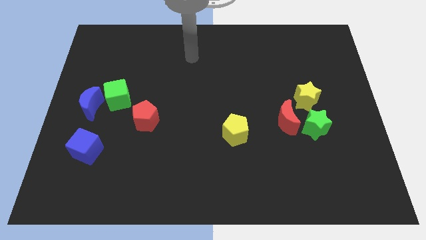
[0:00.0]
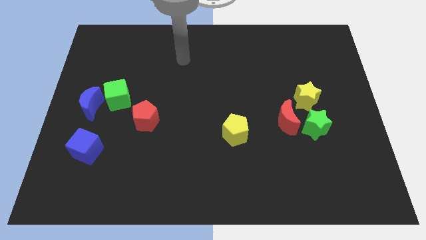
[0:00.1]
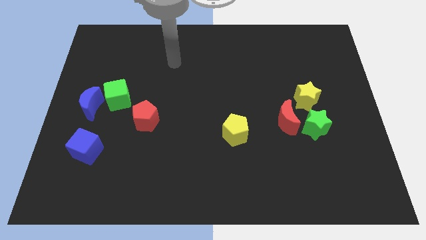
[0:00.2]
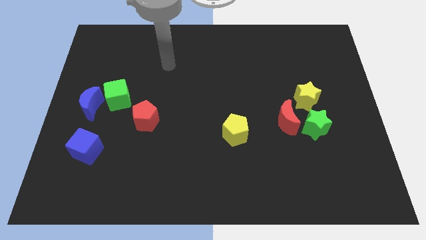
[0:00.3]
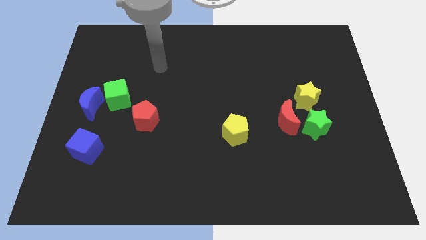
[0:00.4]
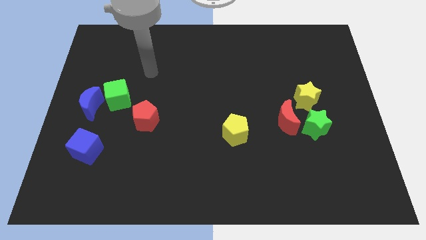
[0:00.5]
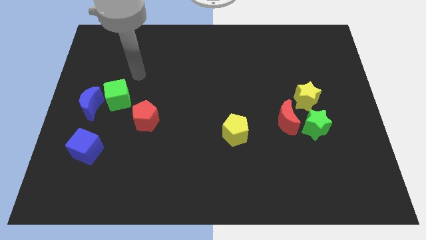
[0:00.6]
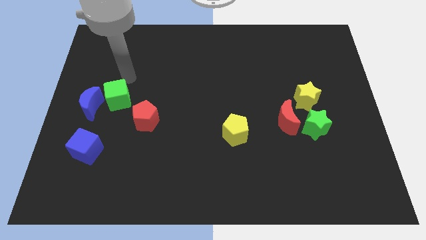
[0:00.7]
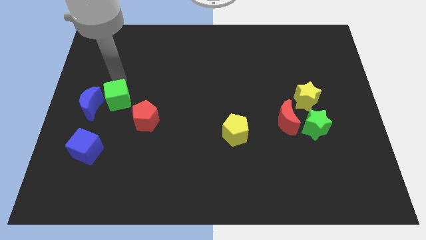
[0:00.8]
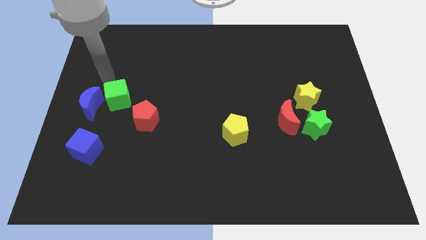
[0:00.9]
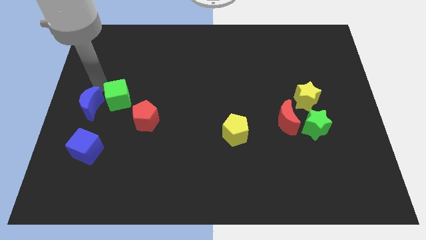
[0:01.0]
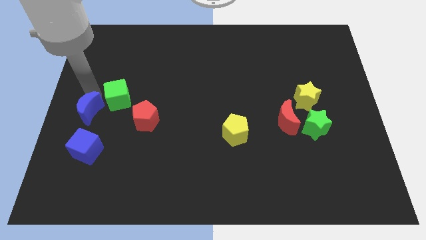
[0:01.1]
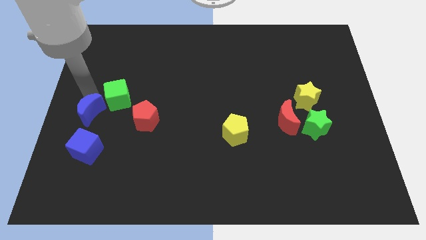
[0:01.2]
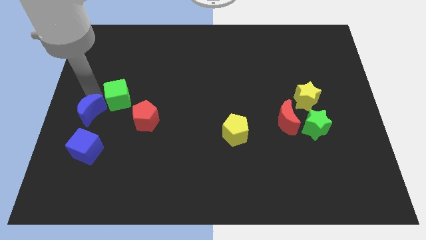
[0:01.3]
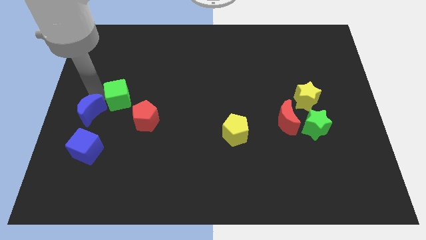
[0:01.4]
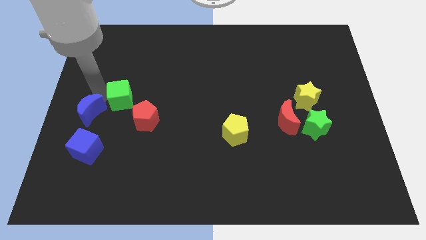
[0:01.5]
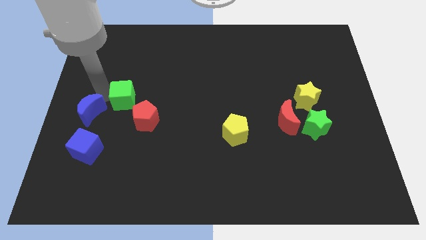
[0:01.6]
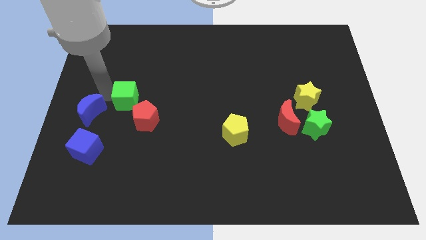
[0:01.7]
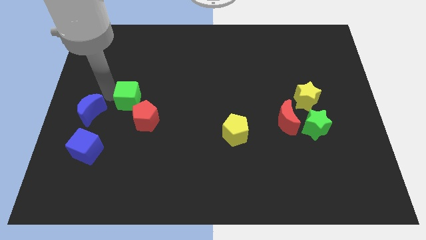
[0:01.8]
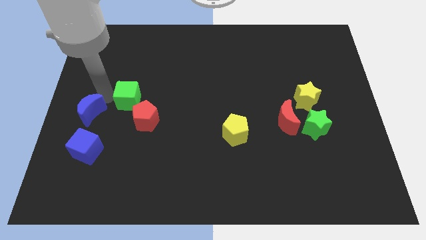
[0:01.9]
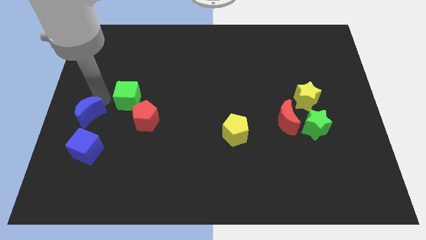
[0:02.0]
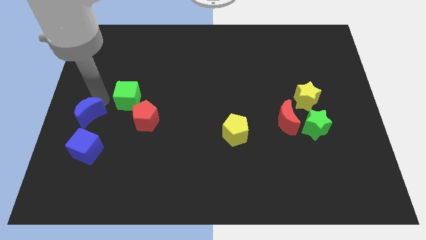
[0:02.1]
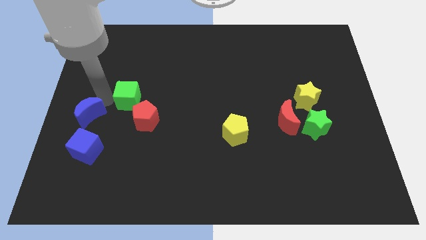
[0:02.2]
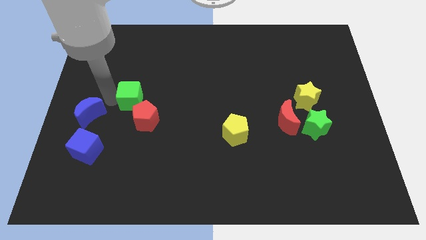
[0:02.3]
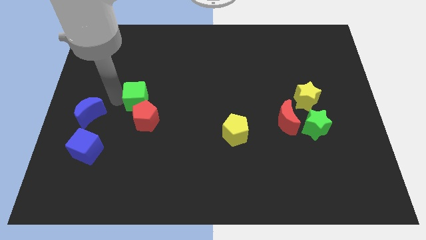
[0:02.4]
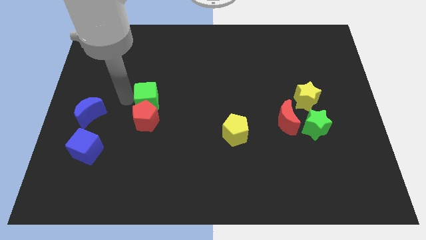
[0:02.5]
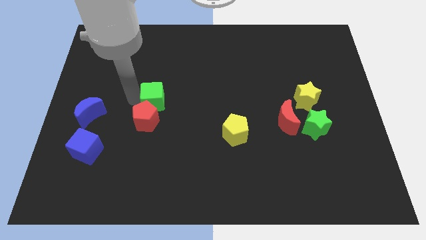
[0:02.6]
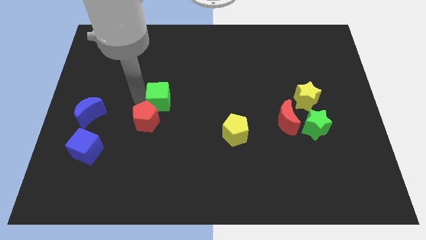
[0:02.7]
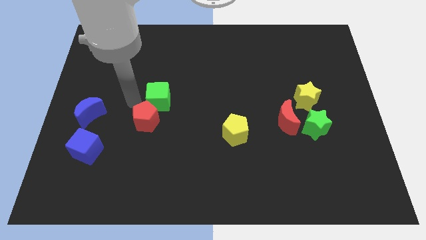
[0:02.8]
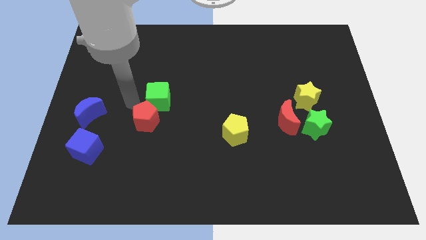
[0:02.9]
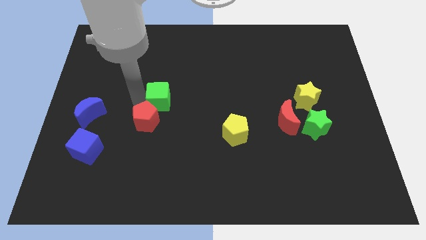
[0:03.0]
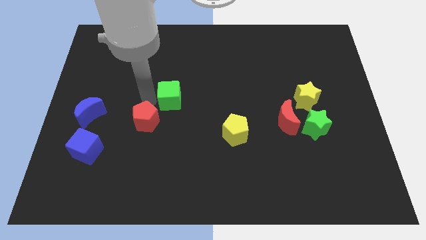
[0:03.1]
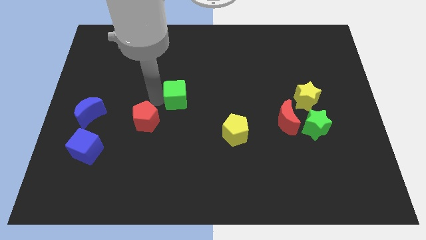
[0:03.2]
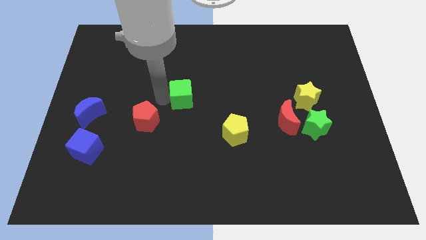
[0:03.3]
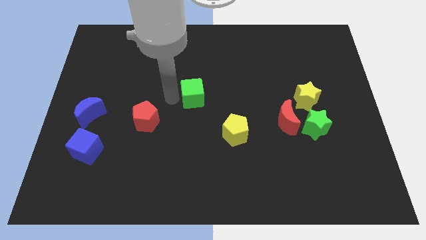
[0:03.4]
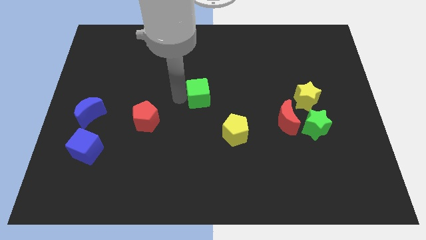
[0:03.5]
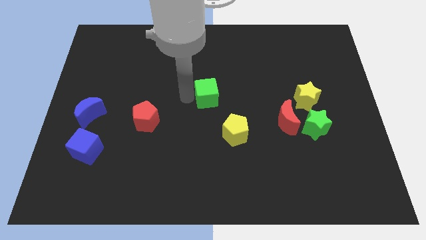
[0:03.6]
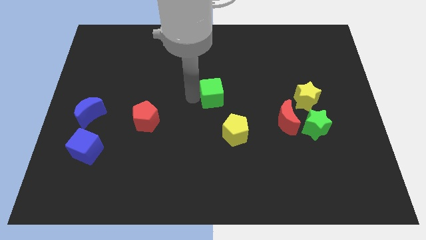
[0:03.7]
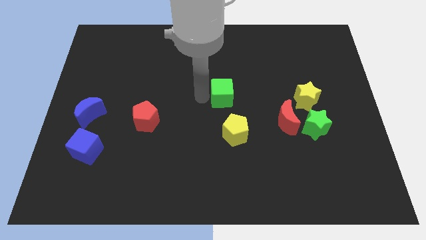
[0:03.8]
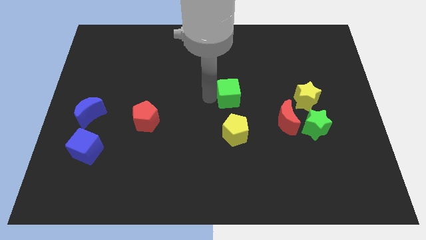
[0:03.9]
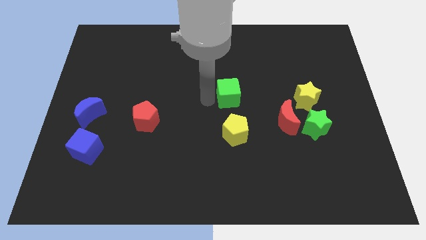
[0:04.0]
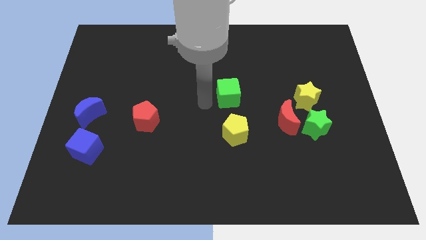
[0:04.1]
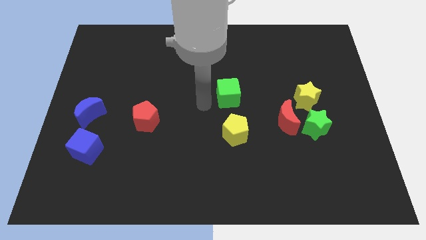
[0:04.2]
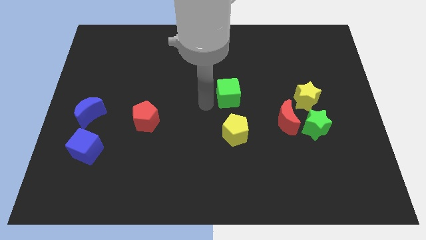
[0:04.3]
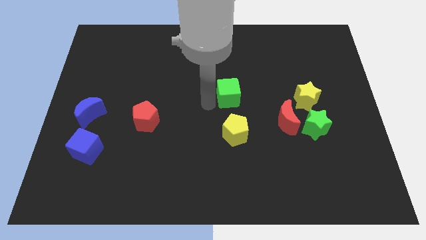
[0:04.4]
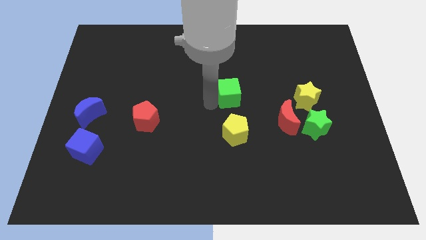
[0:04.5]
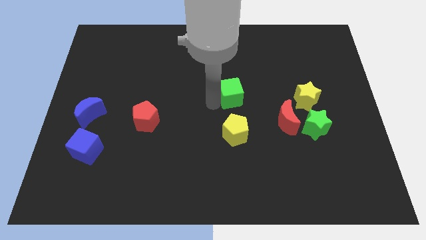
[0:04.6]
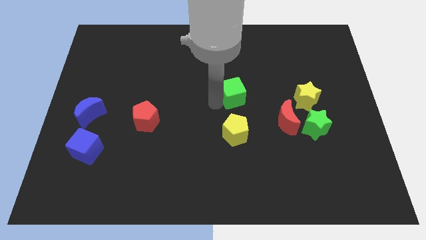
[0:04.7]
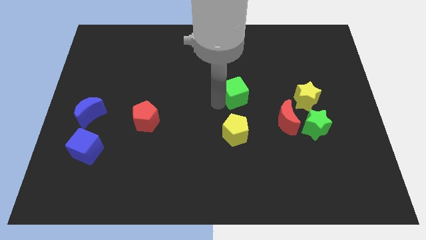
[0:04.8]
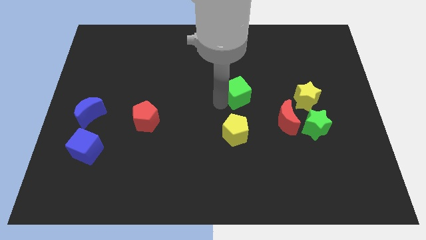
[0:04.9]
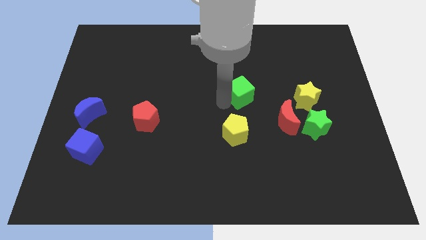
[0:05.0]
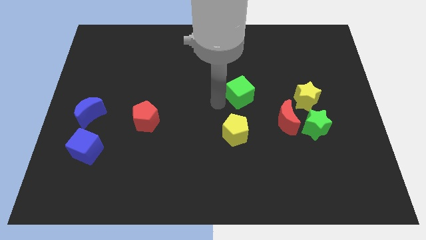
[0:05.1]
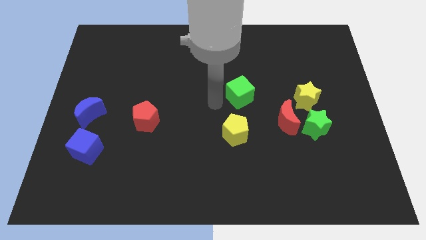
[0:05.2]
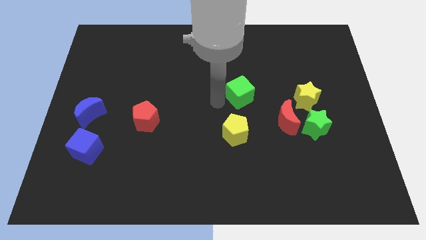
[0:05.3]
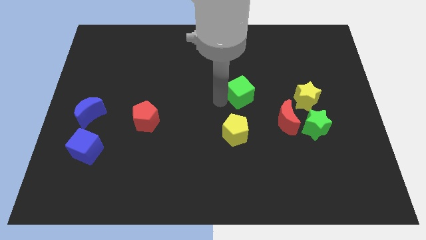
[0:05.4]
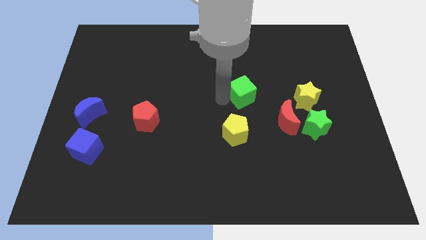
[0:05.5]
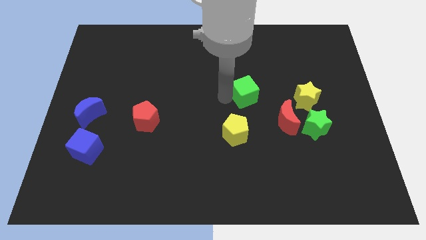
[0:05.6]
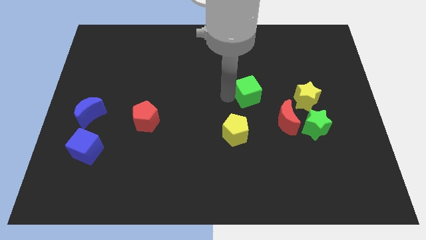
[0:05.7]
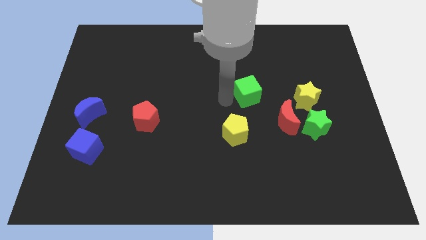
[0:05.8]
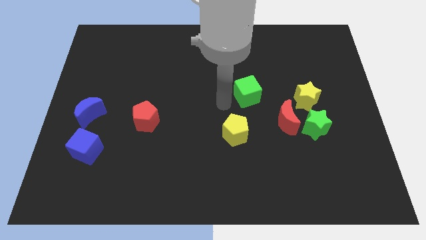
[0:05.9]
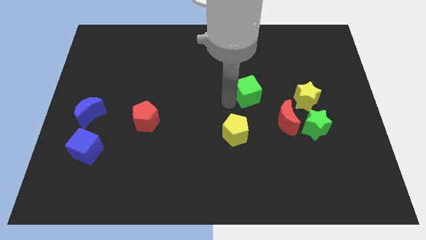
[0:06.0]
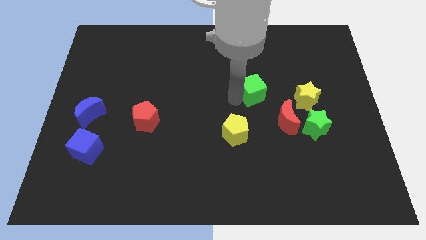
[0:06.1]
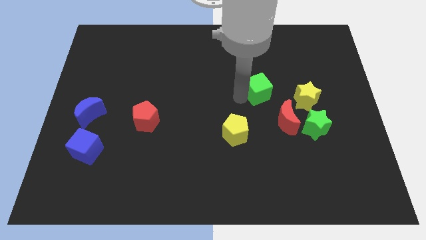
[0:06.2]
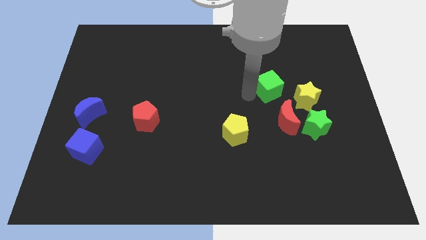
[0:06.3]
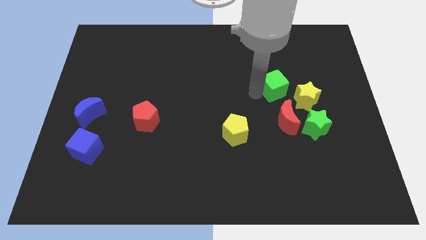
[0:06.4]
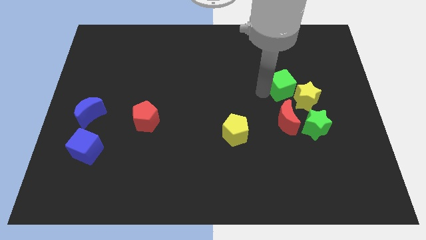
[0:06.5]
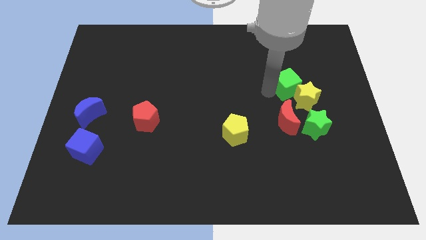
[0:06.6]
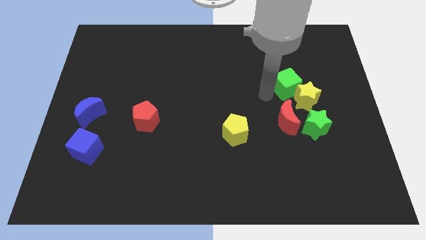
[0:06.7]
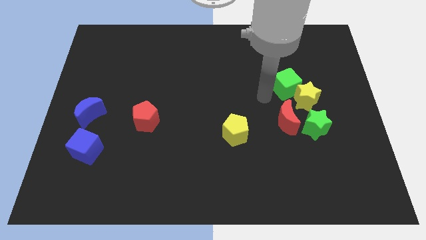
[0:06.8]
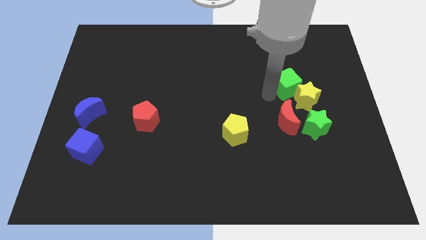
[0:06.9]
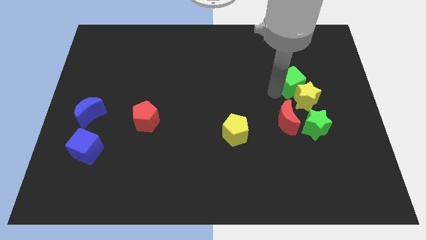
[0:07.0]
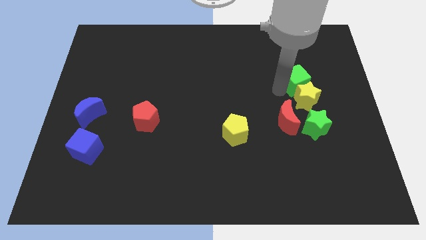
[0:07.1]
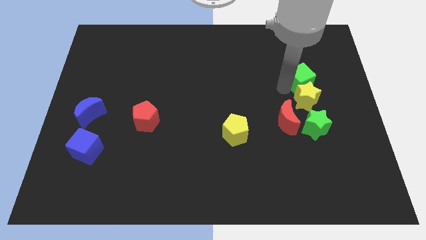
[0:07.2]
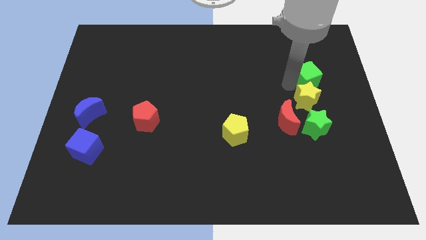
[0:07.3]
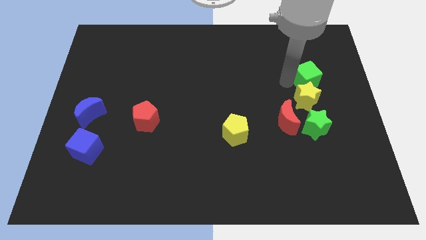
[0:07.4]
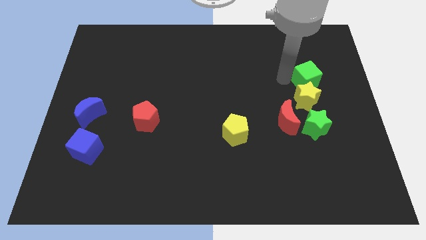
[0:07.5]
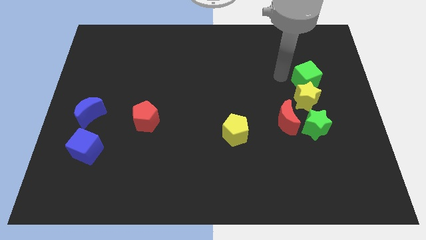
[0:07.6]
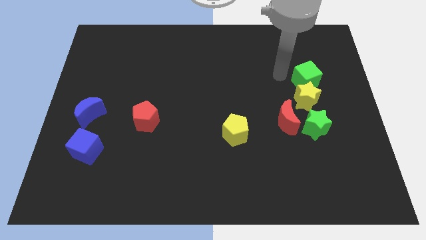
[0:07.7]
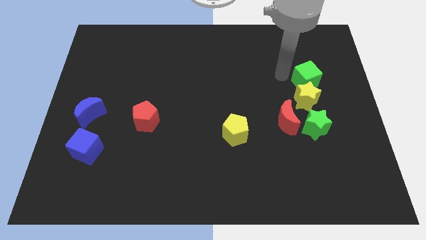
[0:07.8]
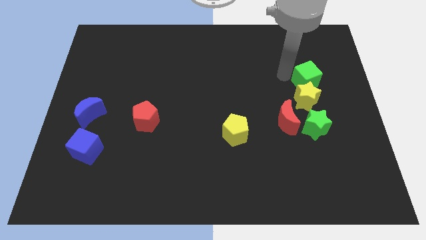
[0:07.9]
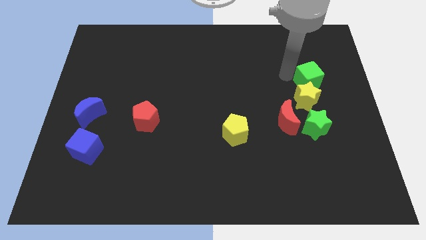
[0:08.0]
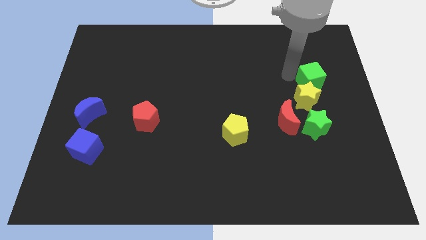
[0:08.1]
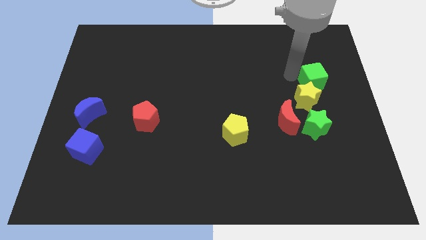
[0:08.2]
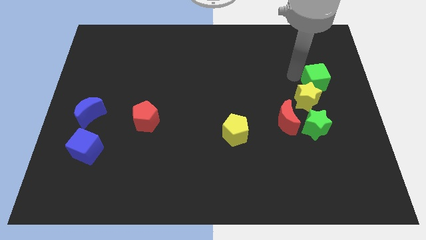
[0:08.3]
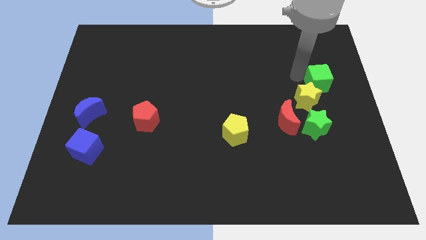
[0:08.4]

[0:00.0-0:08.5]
slide the green cube to the center right
